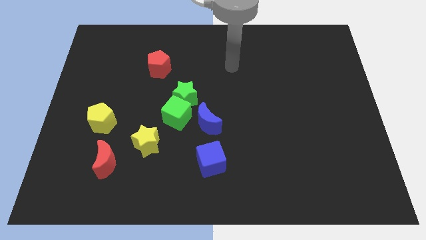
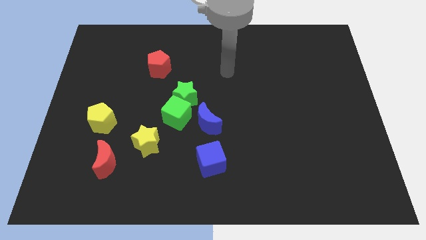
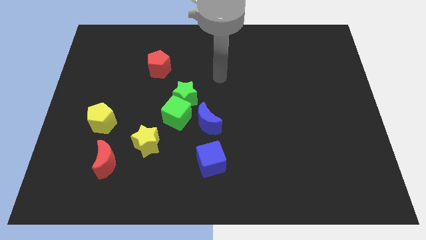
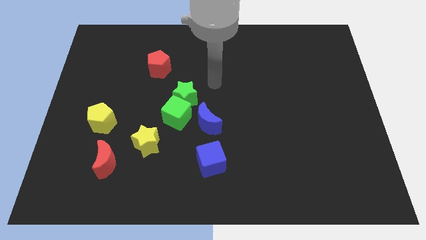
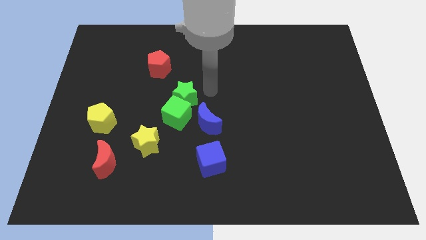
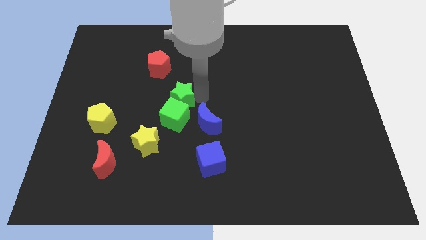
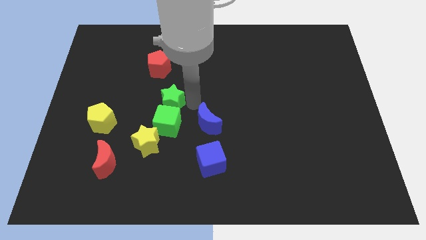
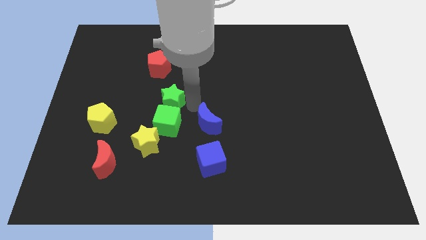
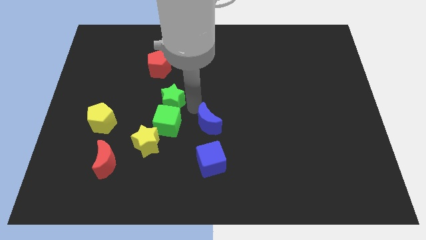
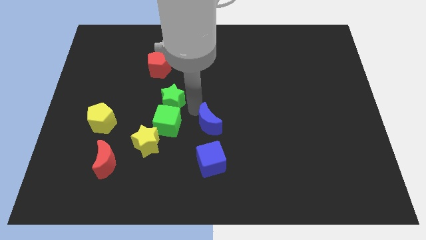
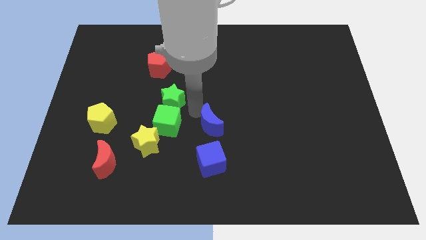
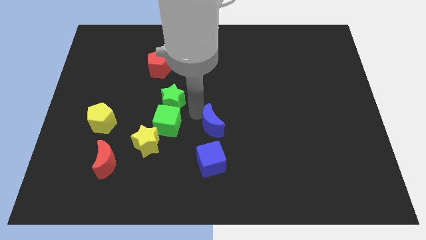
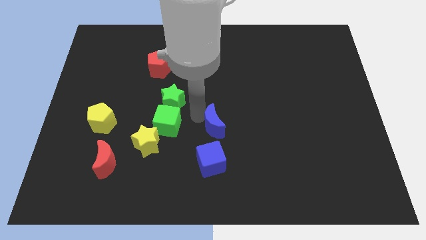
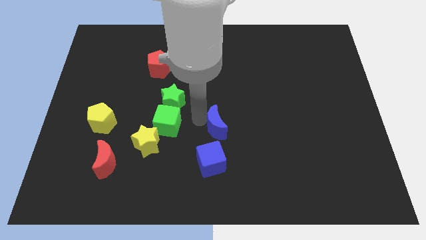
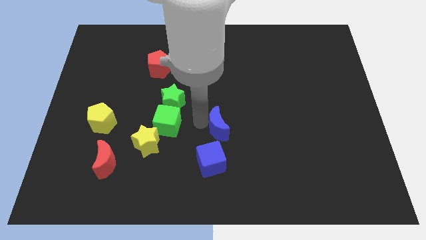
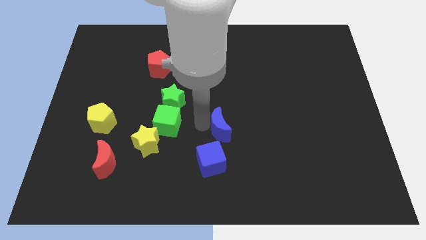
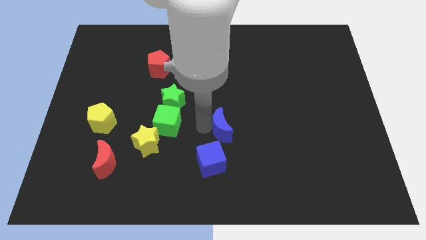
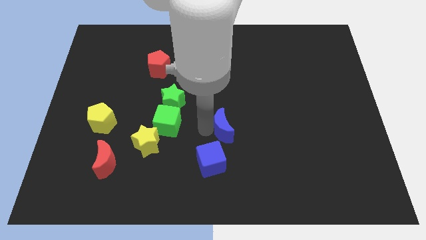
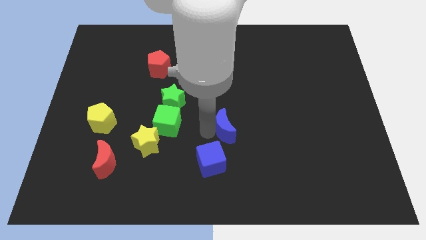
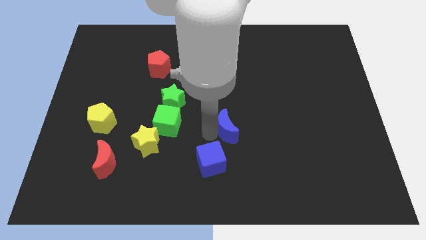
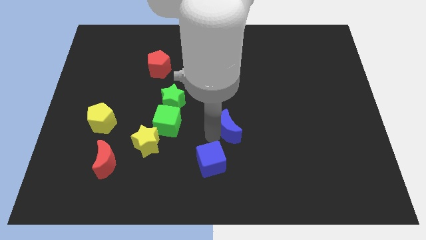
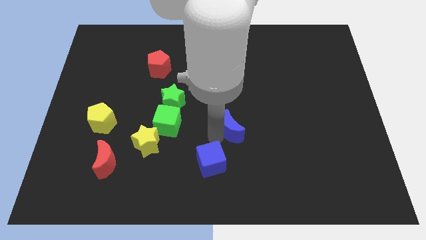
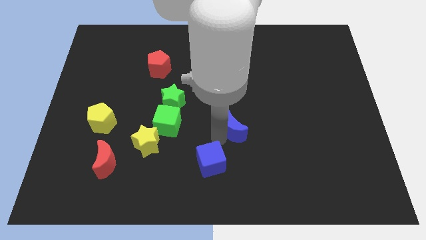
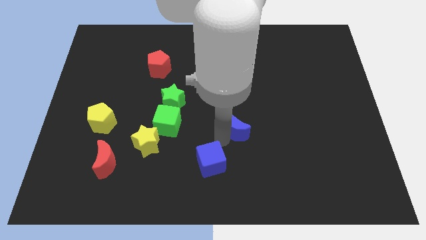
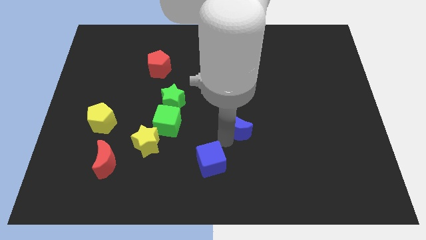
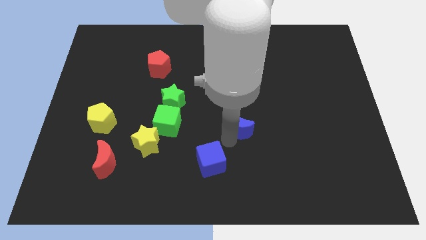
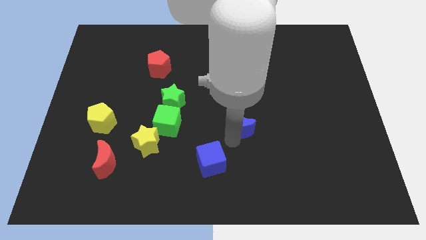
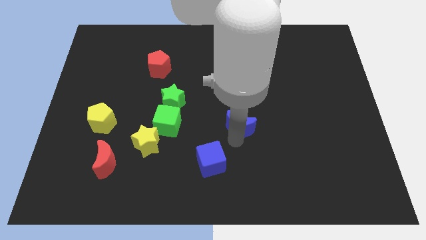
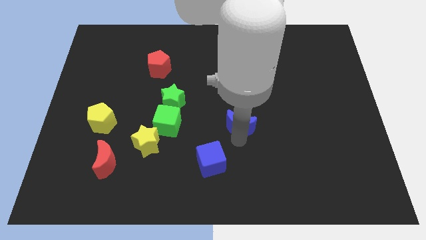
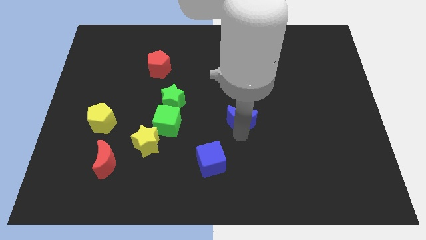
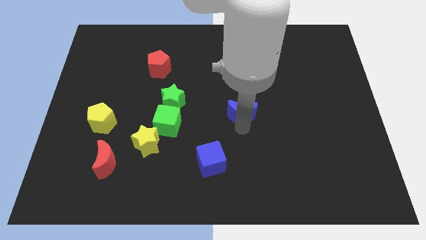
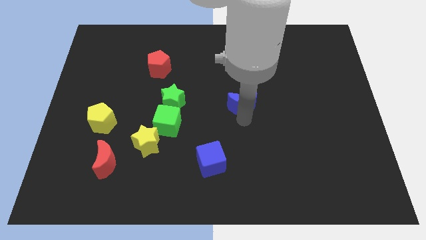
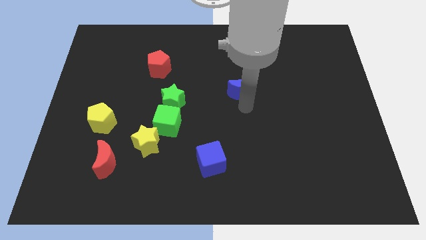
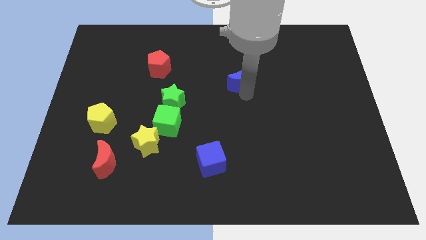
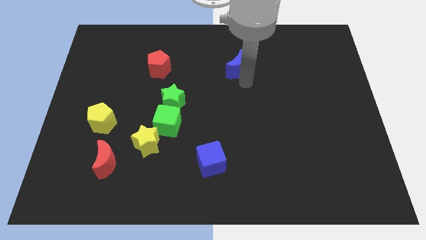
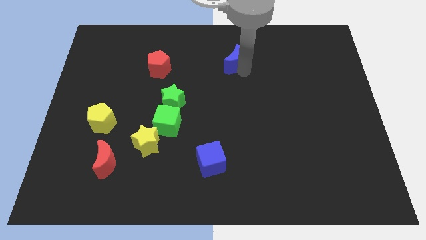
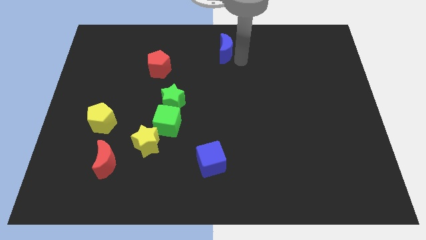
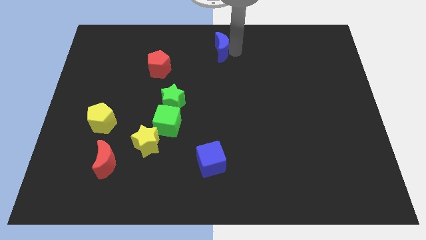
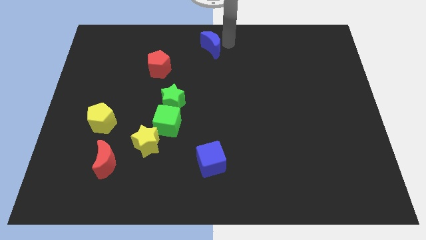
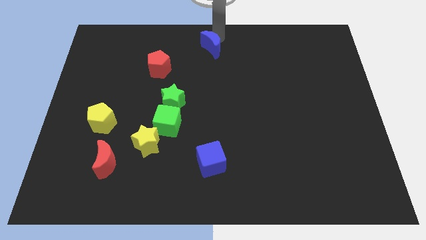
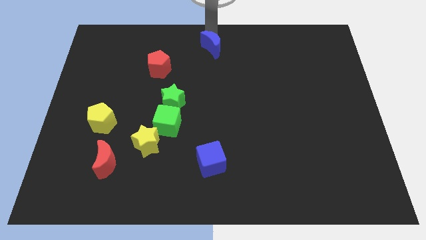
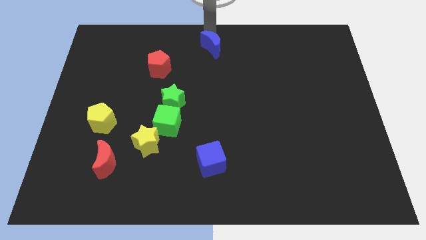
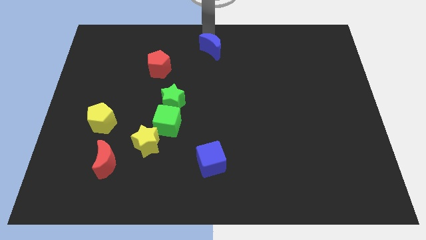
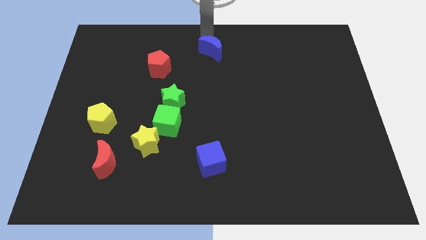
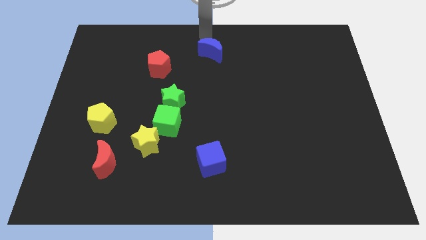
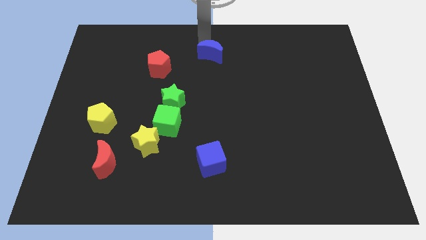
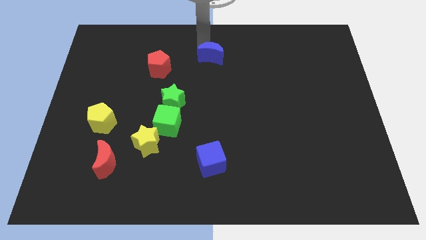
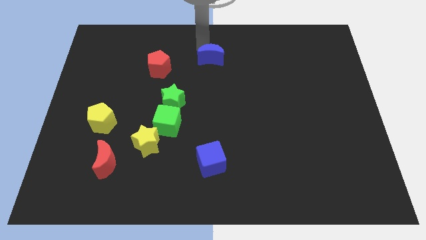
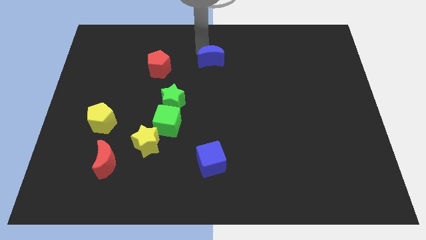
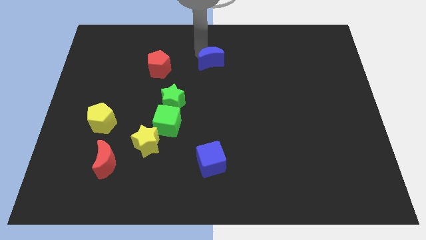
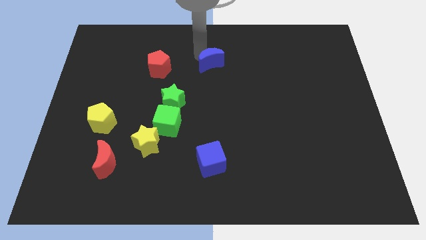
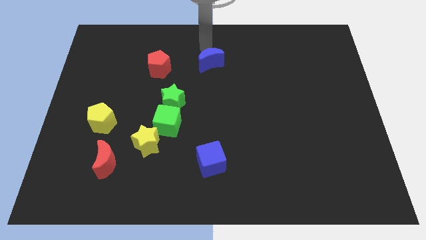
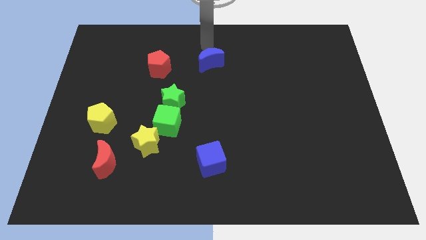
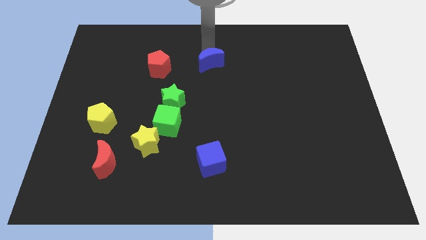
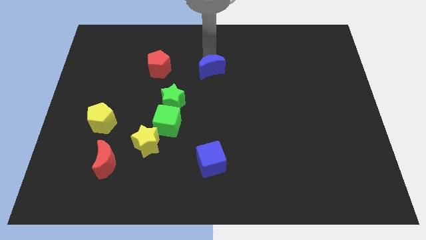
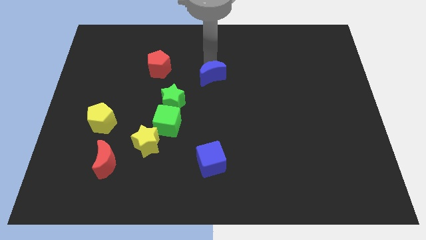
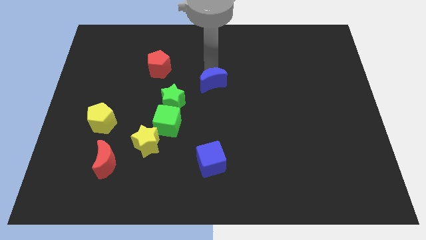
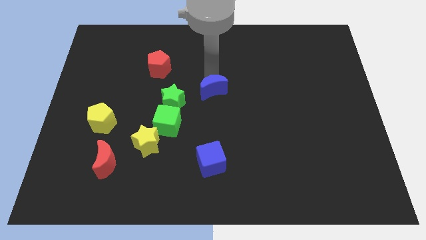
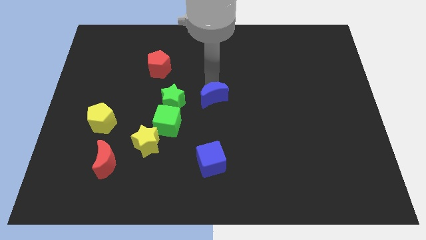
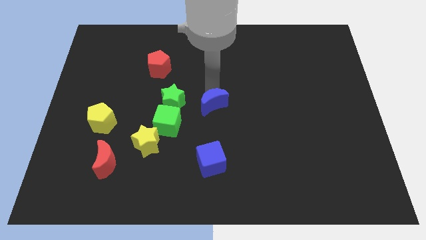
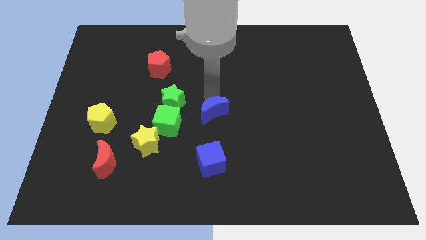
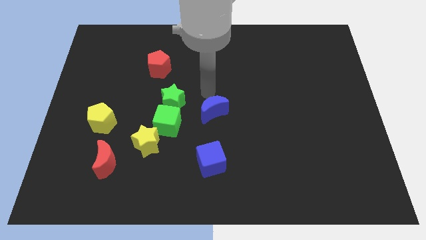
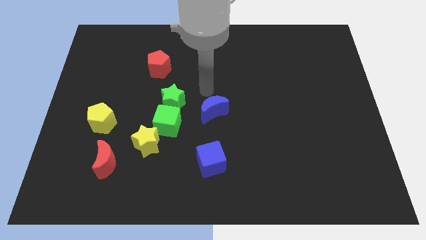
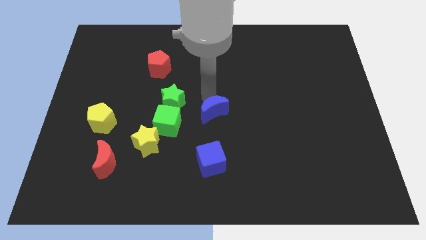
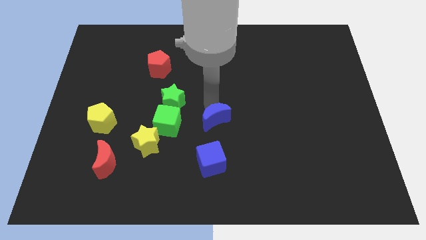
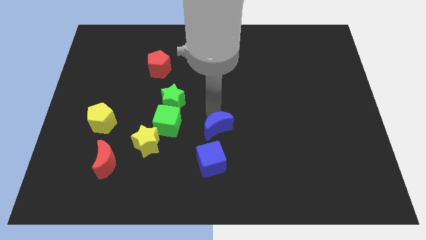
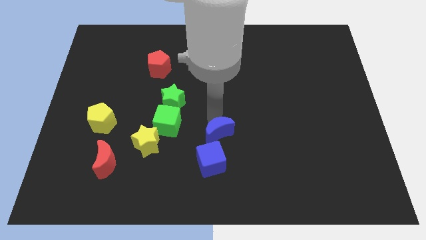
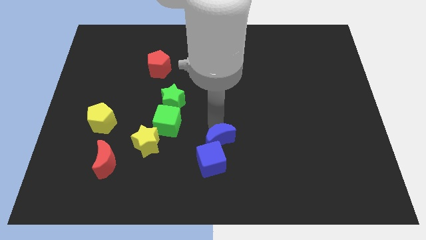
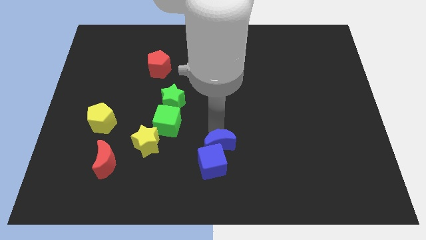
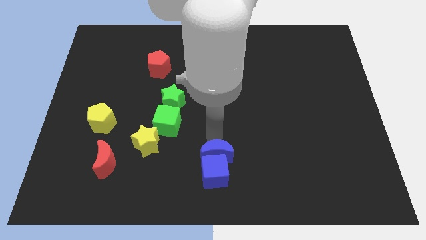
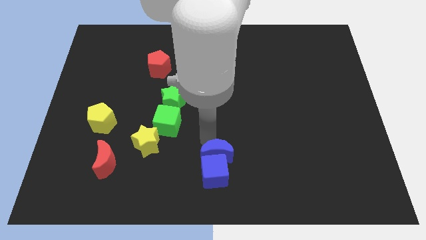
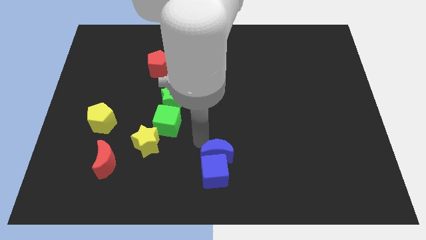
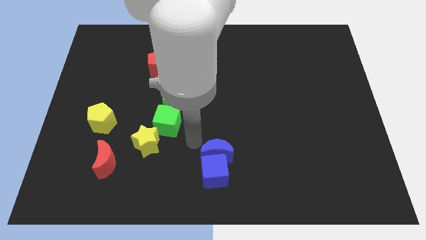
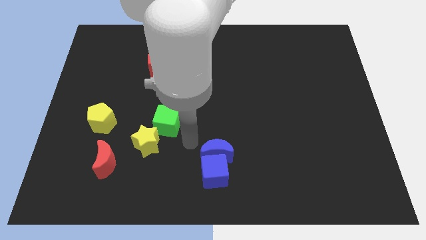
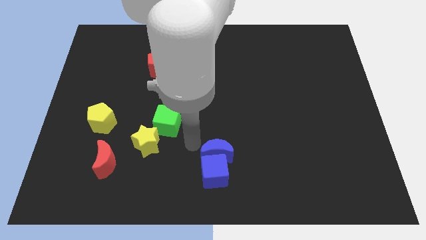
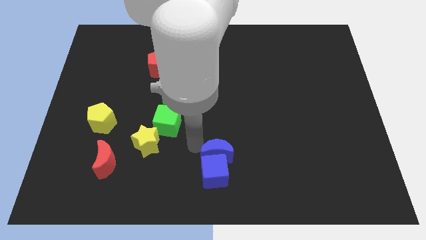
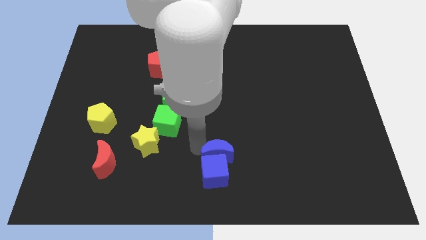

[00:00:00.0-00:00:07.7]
slightly move the blue moon downwards and right

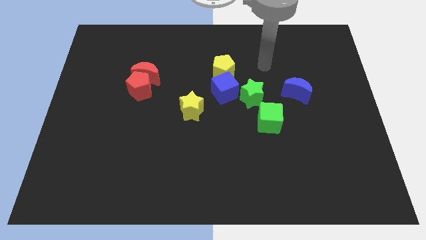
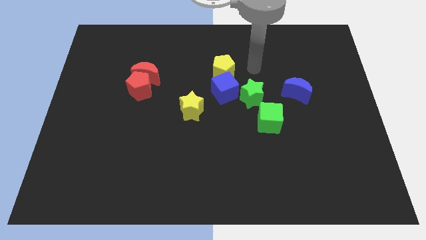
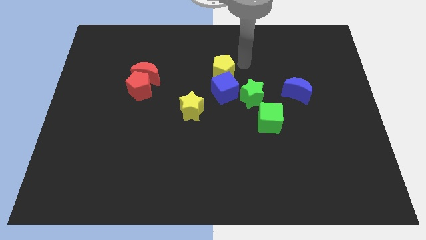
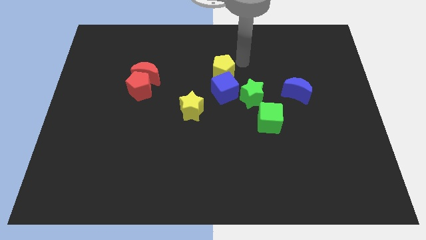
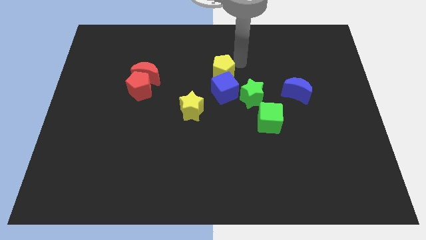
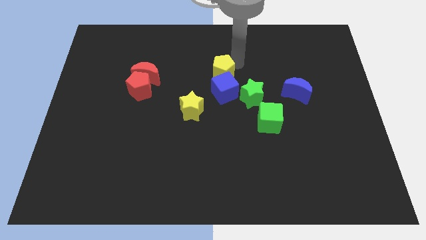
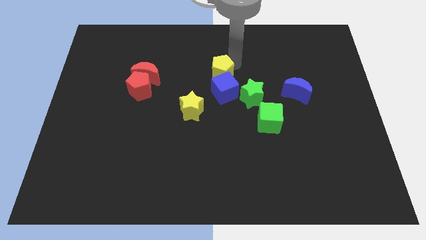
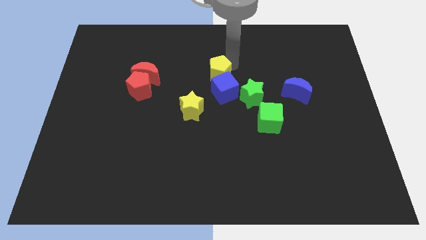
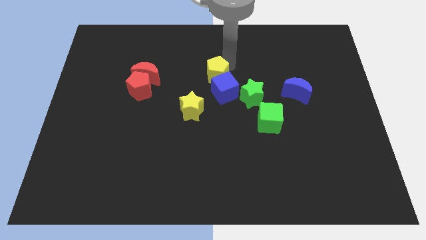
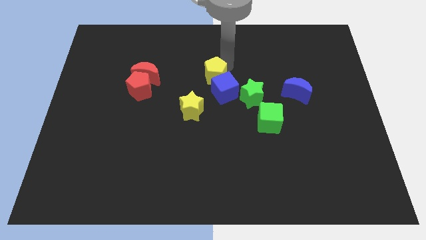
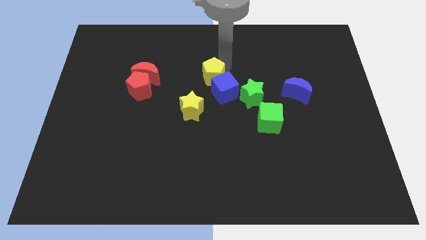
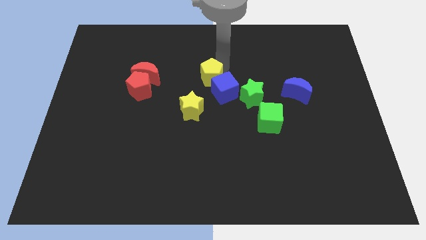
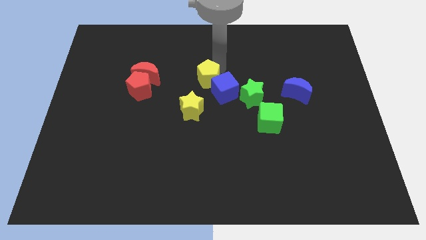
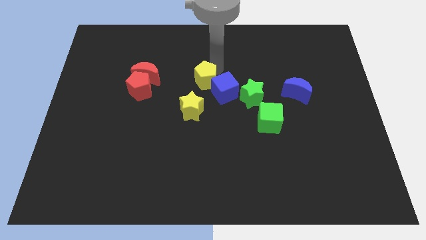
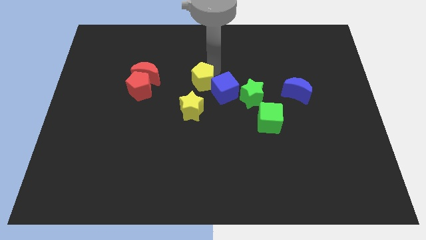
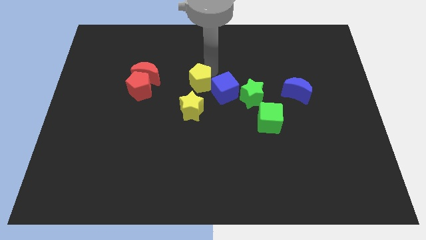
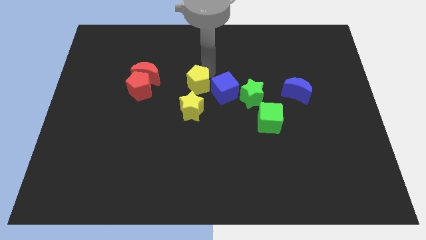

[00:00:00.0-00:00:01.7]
push the yellow pentagon a little diagonally down and left
